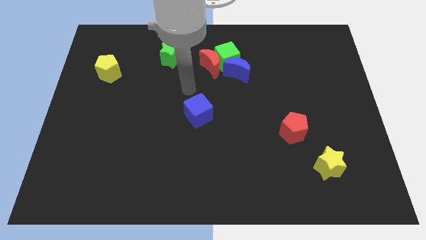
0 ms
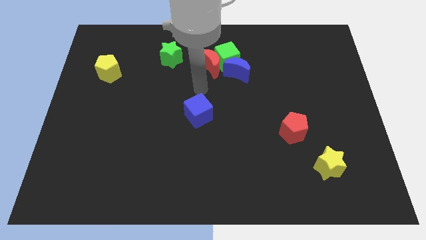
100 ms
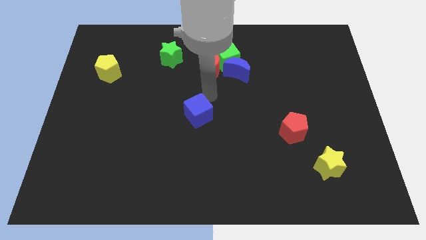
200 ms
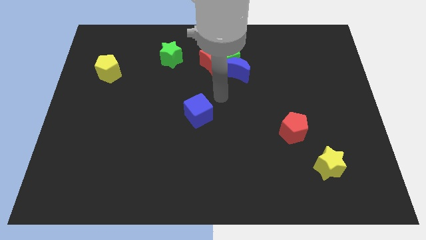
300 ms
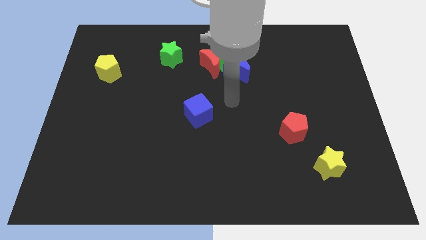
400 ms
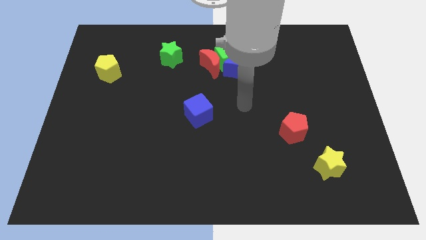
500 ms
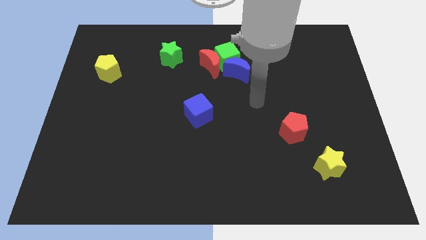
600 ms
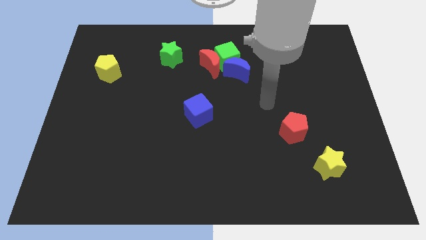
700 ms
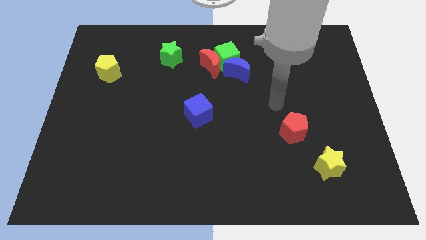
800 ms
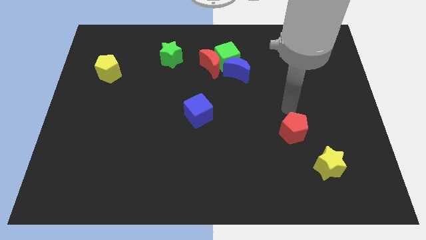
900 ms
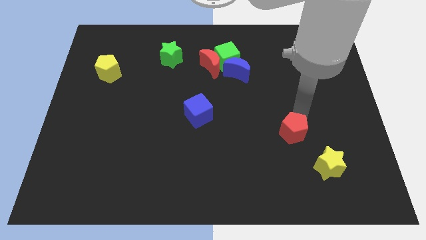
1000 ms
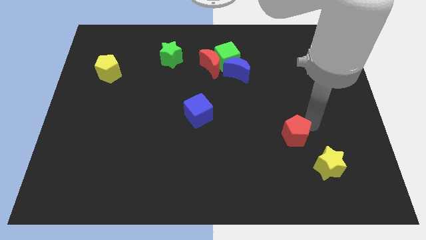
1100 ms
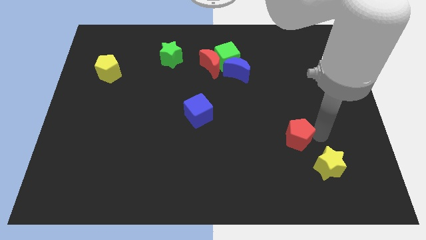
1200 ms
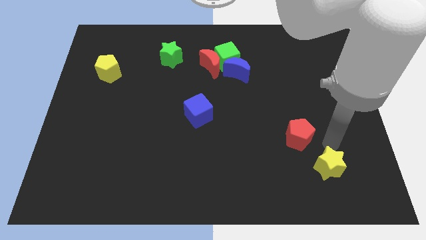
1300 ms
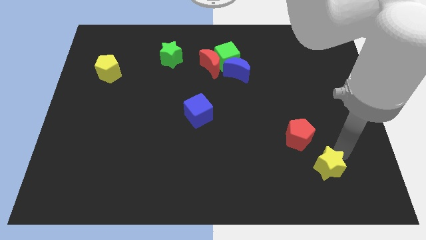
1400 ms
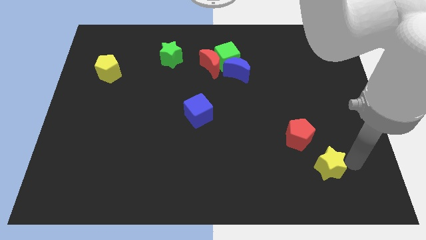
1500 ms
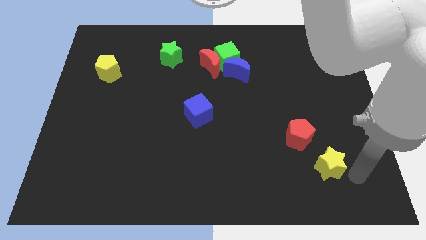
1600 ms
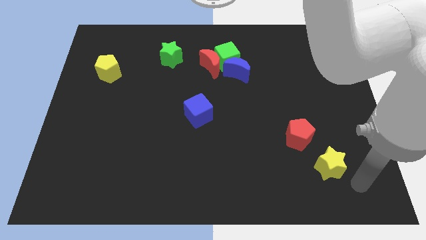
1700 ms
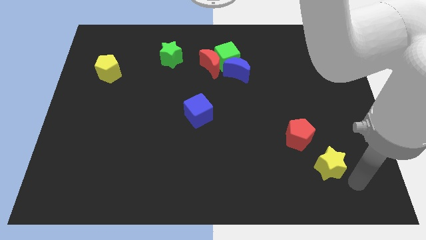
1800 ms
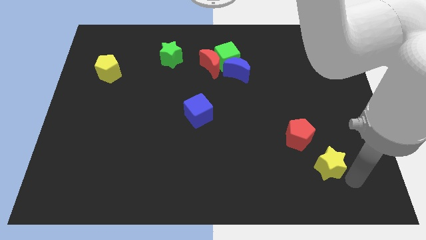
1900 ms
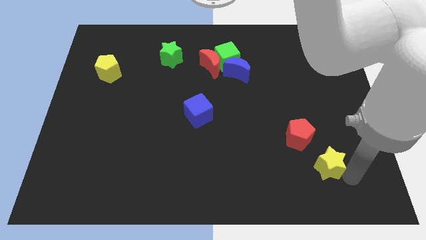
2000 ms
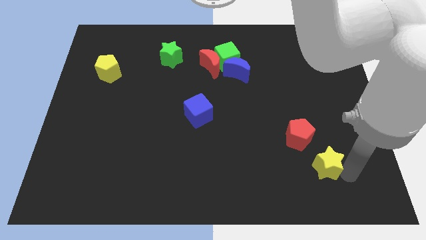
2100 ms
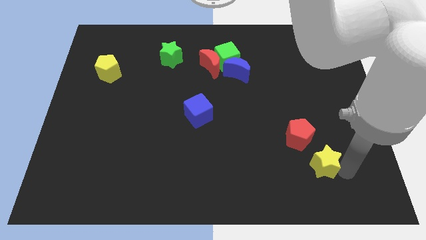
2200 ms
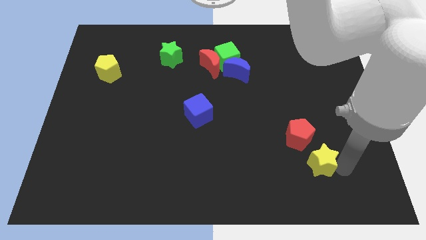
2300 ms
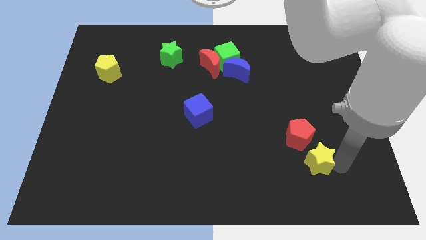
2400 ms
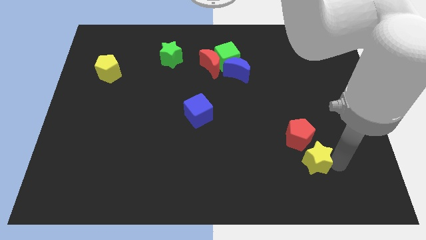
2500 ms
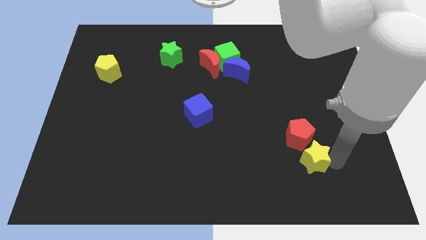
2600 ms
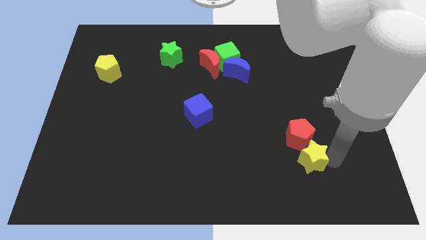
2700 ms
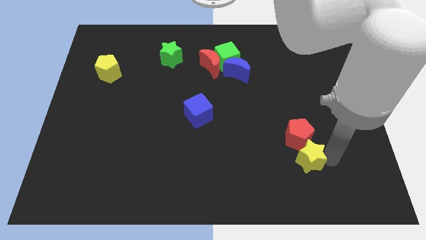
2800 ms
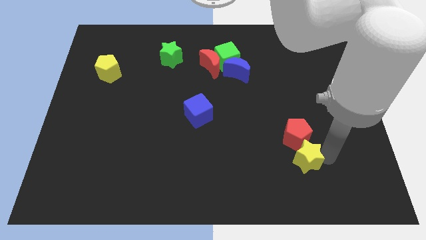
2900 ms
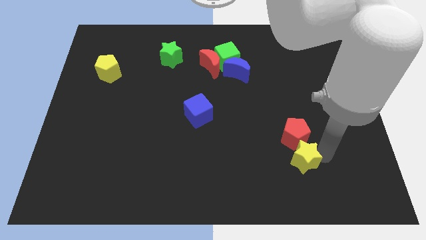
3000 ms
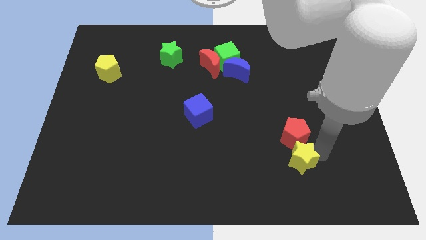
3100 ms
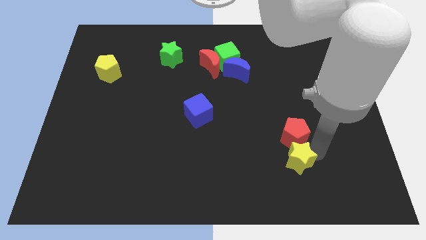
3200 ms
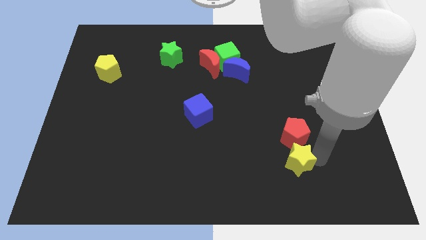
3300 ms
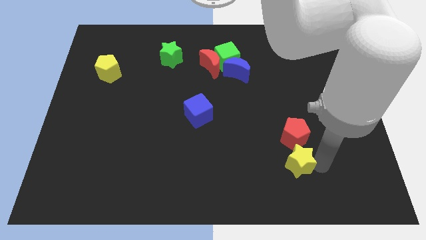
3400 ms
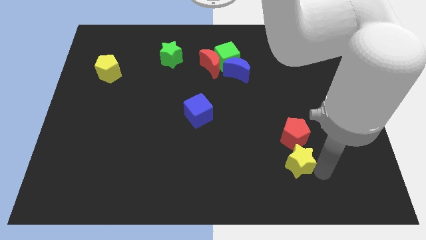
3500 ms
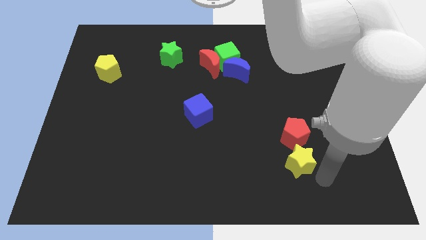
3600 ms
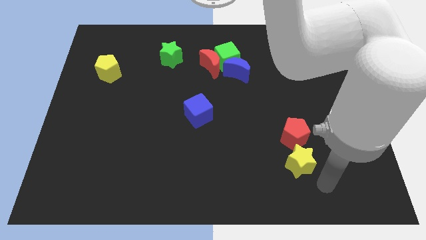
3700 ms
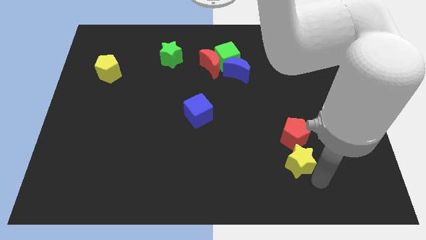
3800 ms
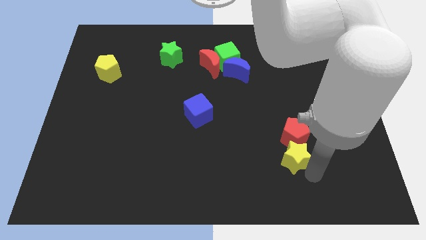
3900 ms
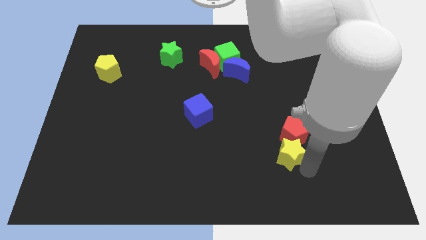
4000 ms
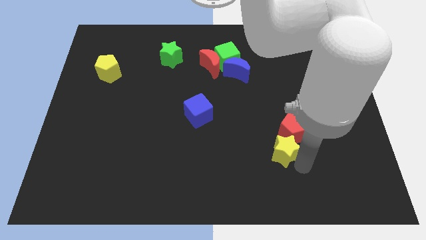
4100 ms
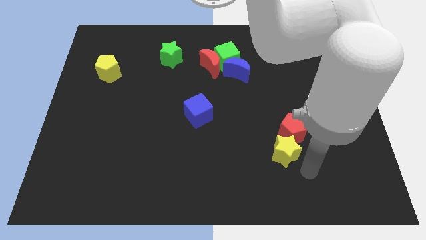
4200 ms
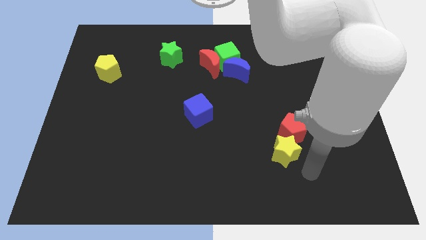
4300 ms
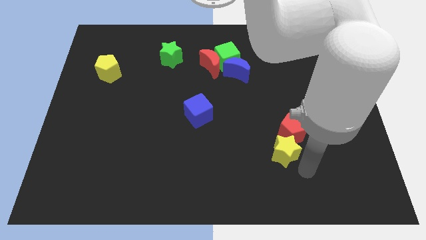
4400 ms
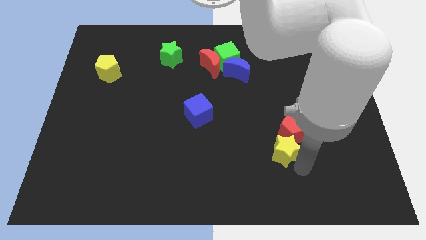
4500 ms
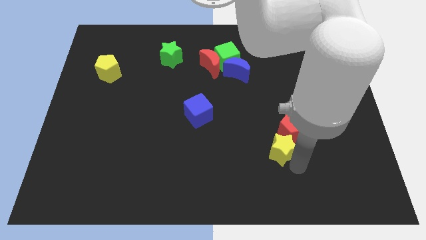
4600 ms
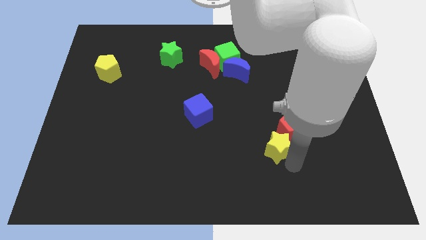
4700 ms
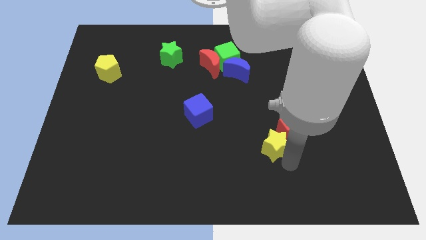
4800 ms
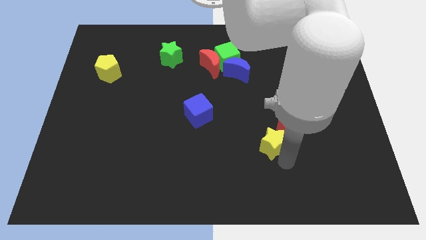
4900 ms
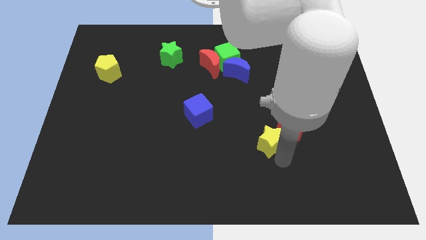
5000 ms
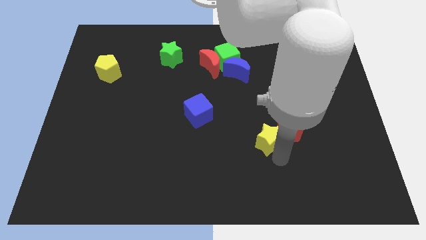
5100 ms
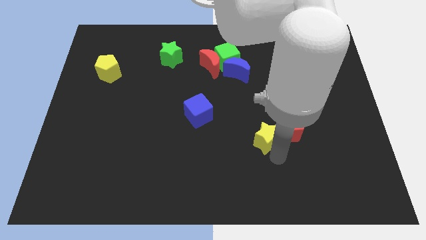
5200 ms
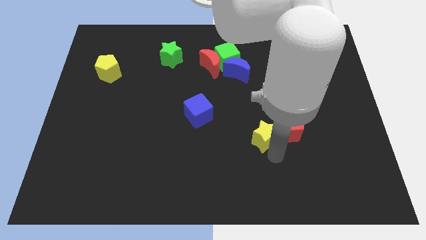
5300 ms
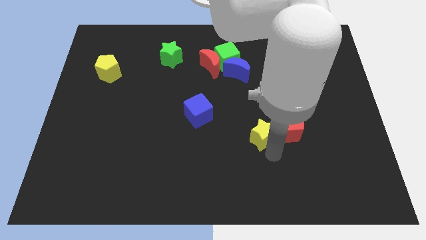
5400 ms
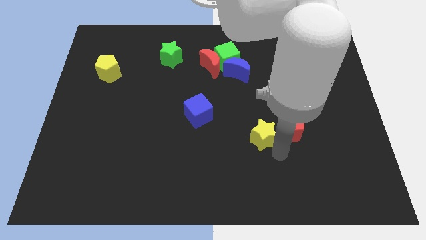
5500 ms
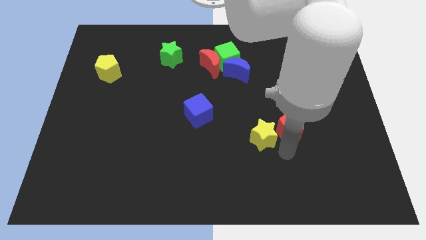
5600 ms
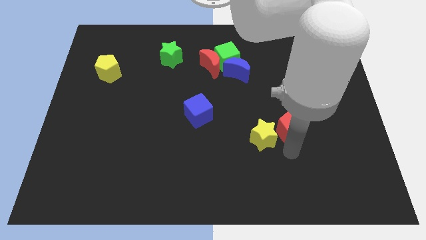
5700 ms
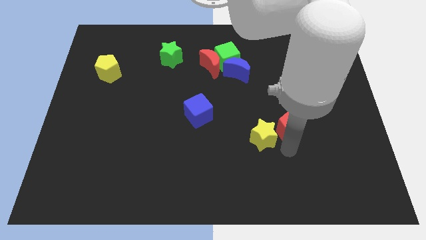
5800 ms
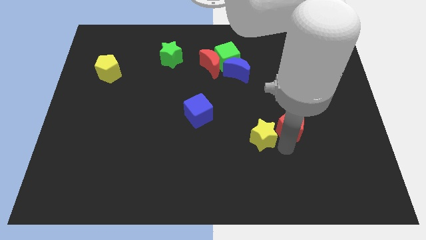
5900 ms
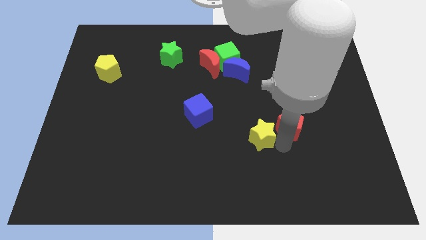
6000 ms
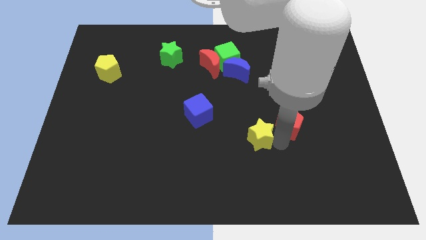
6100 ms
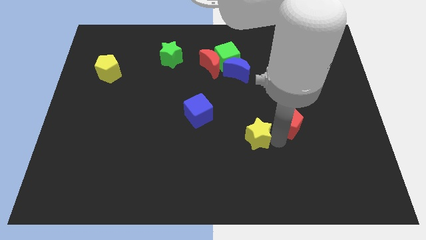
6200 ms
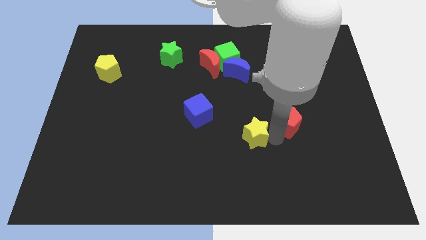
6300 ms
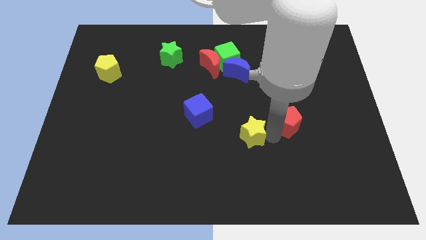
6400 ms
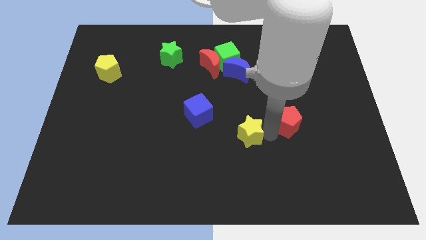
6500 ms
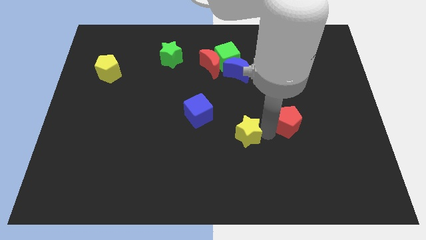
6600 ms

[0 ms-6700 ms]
put the yellow star to the center
